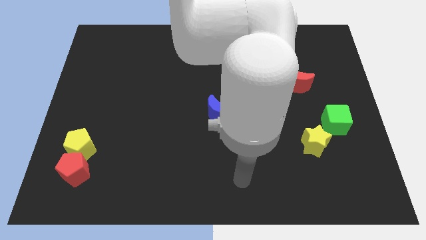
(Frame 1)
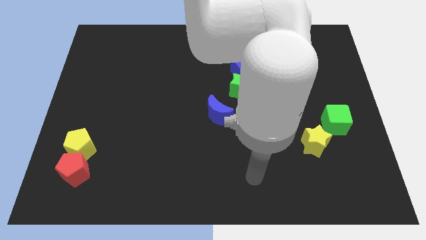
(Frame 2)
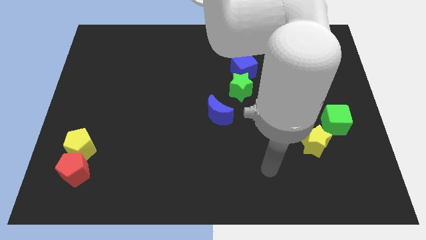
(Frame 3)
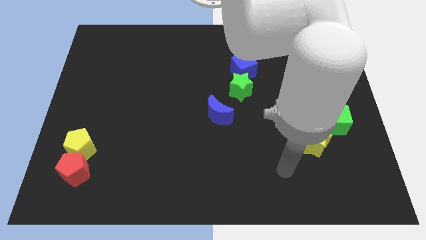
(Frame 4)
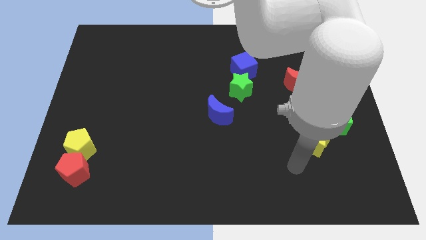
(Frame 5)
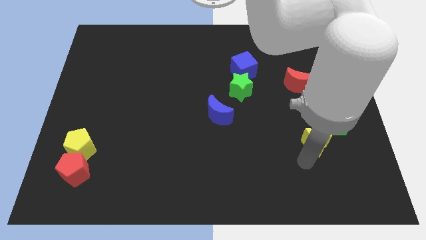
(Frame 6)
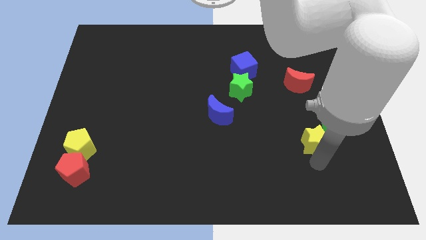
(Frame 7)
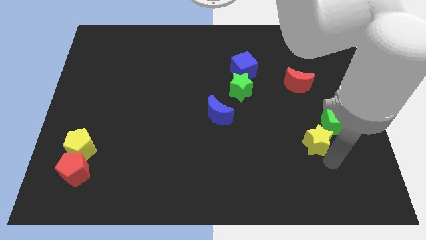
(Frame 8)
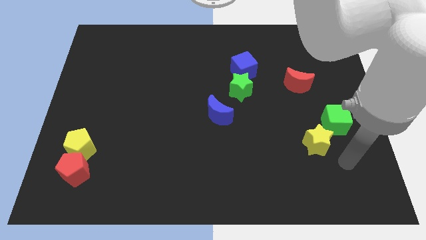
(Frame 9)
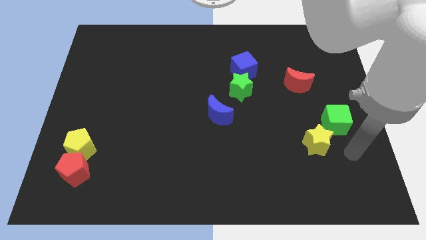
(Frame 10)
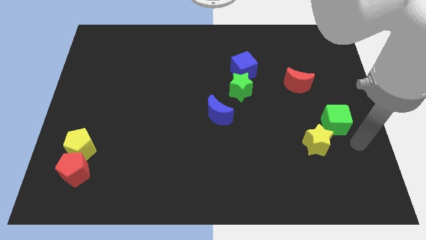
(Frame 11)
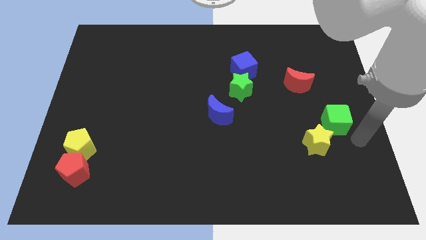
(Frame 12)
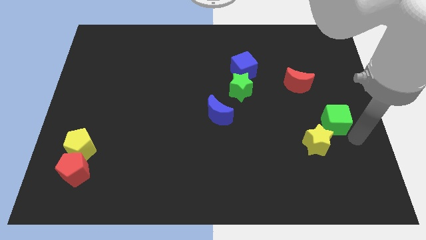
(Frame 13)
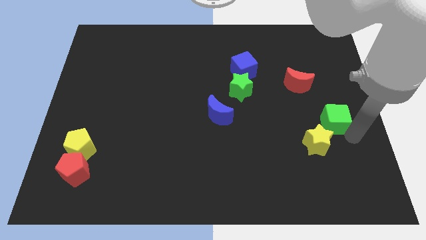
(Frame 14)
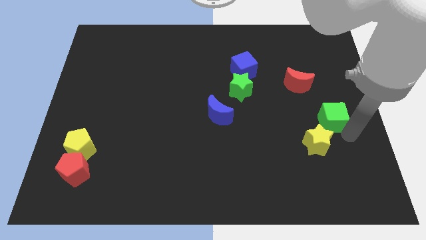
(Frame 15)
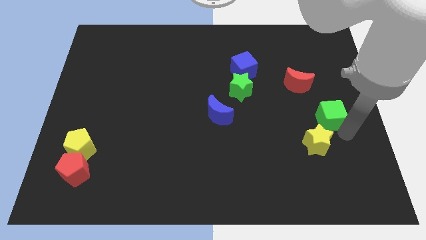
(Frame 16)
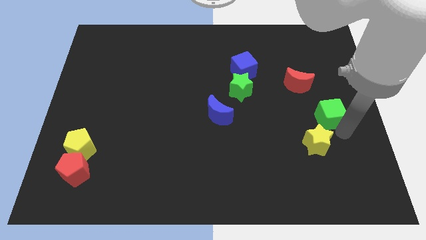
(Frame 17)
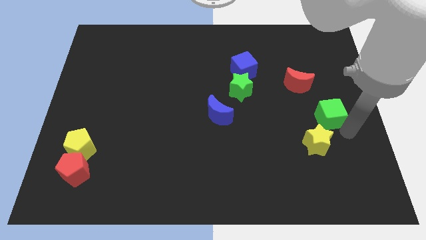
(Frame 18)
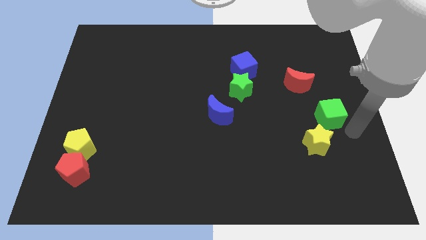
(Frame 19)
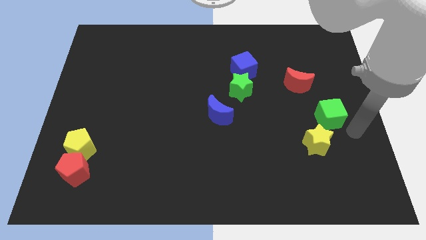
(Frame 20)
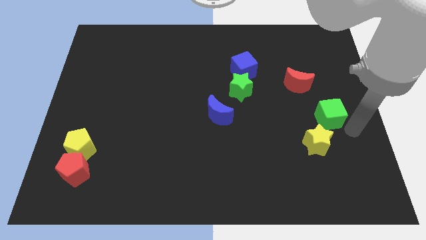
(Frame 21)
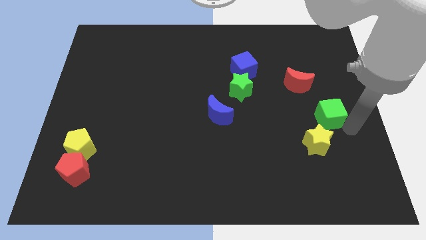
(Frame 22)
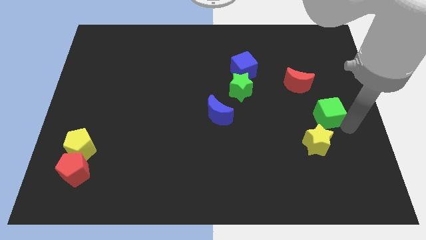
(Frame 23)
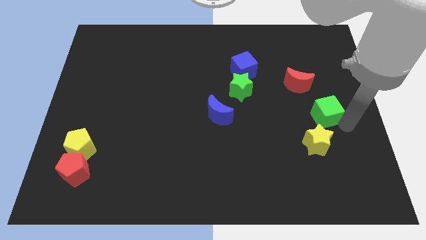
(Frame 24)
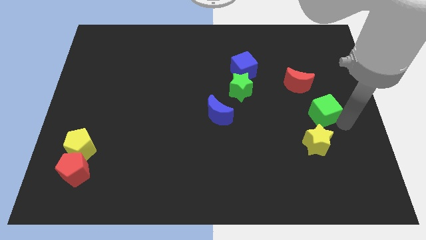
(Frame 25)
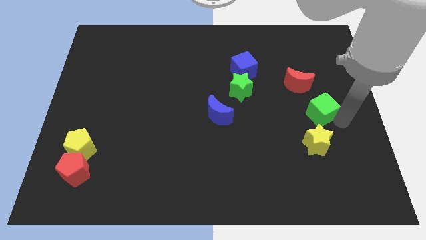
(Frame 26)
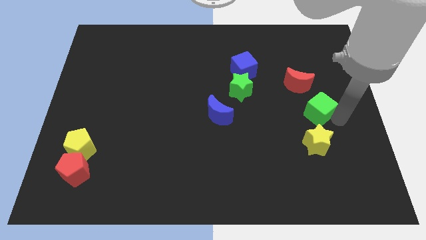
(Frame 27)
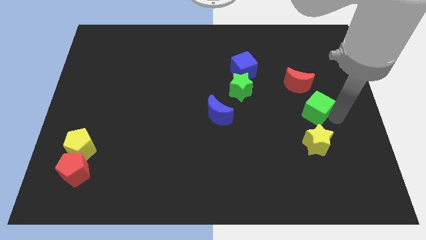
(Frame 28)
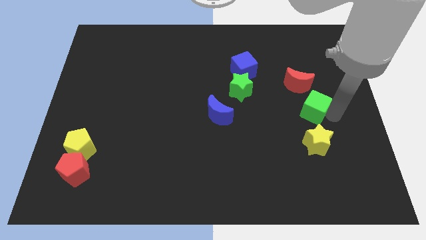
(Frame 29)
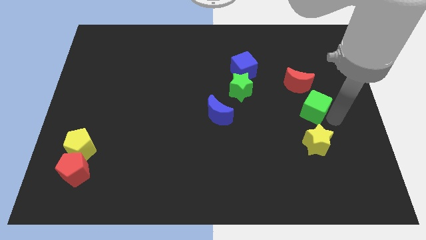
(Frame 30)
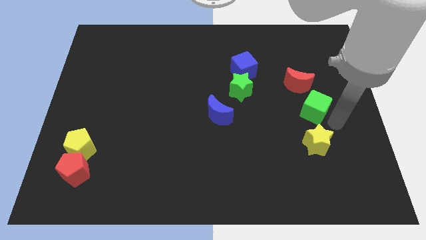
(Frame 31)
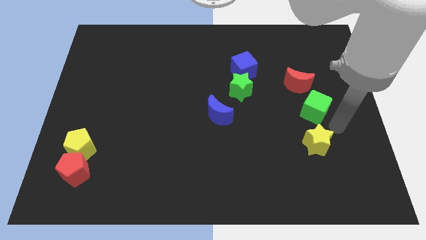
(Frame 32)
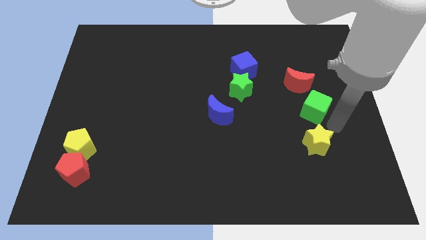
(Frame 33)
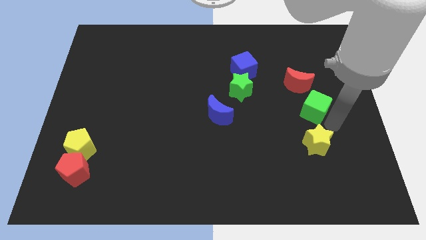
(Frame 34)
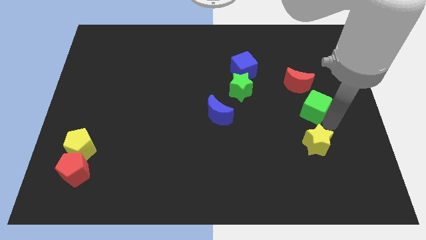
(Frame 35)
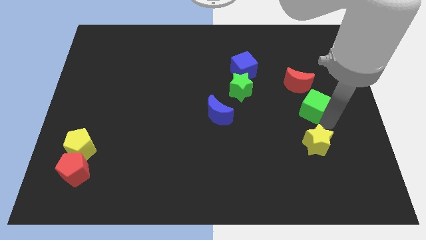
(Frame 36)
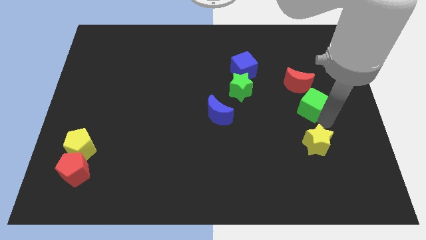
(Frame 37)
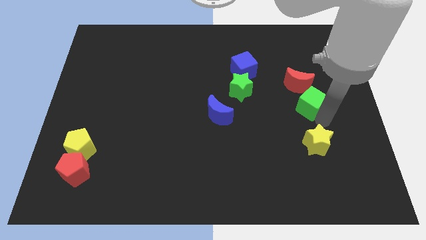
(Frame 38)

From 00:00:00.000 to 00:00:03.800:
slide the green cube slightly up and to the left diagonally

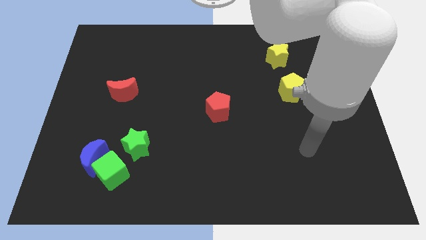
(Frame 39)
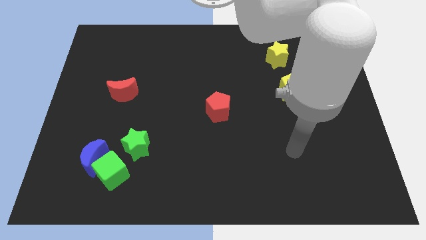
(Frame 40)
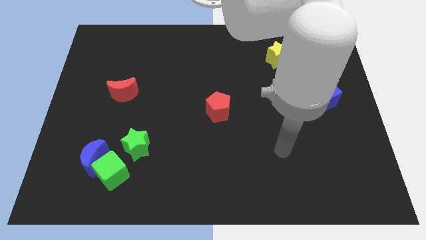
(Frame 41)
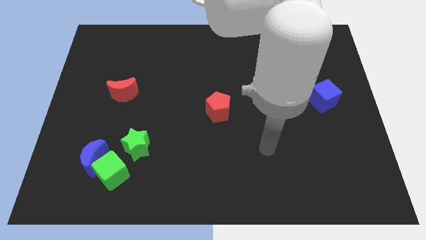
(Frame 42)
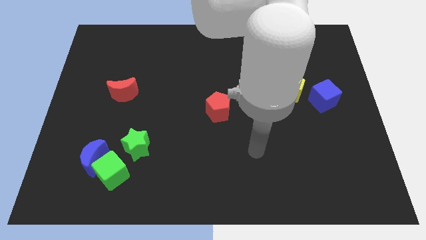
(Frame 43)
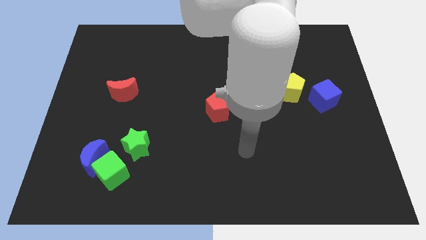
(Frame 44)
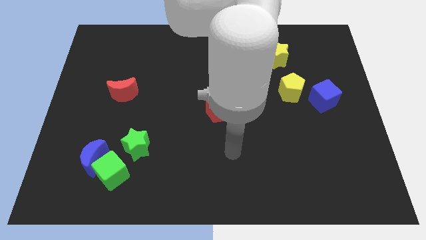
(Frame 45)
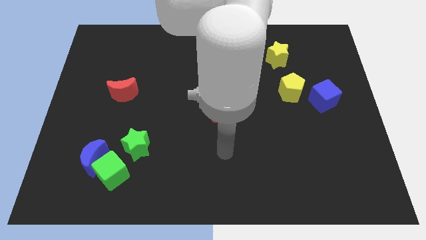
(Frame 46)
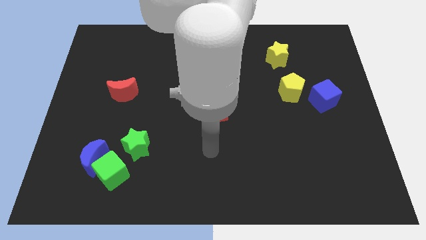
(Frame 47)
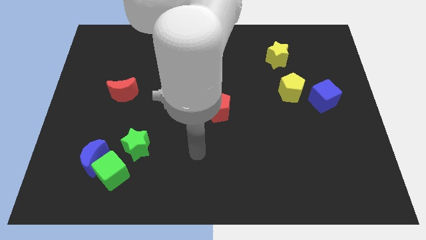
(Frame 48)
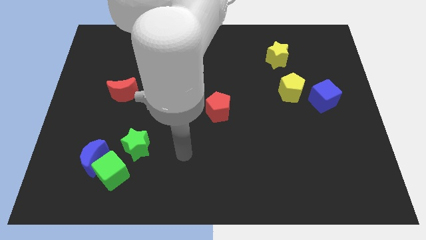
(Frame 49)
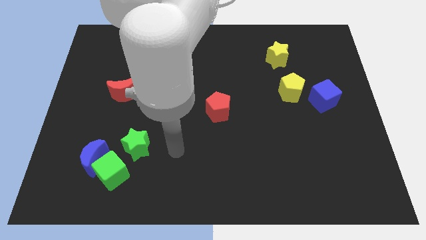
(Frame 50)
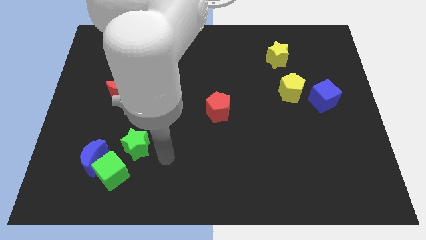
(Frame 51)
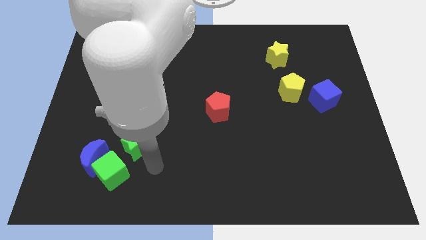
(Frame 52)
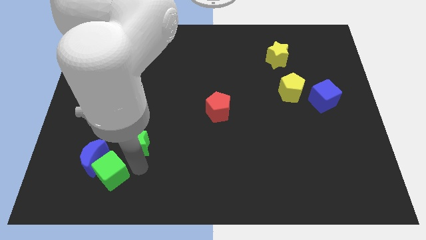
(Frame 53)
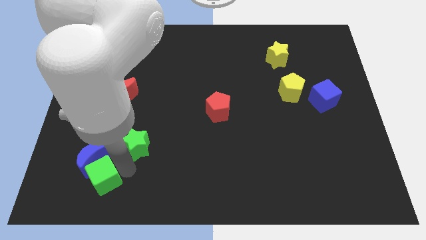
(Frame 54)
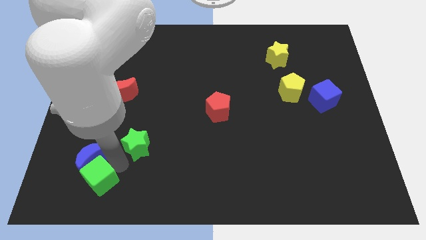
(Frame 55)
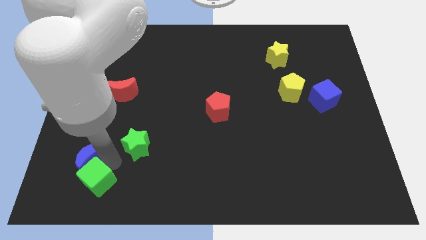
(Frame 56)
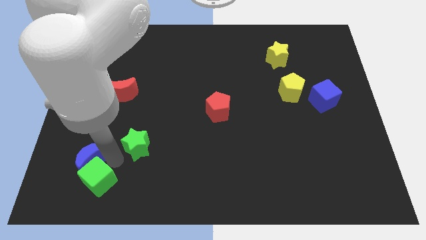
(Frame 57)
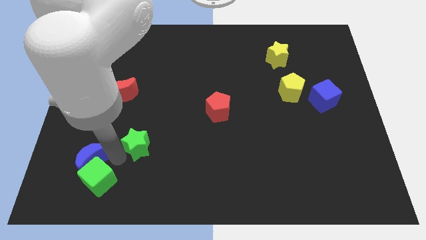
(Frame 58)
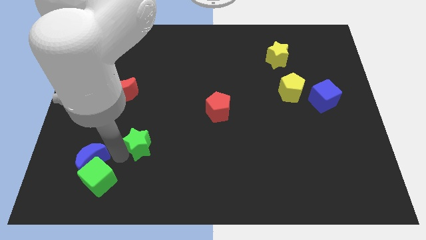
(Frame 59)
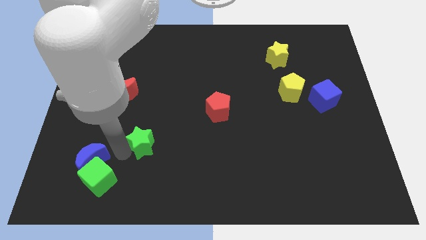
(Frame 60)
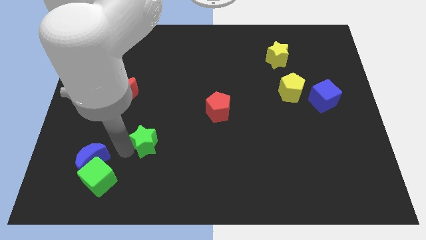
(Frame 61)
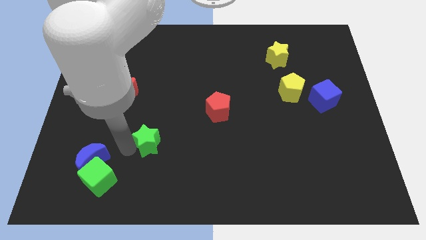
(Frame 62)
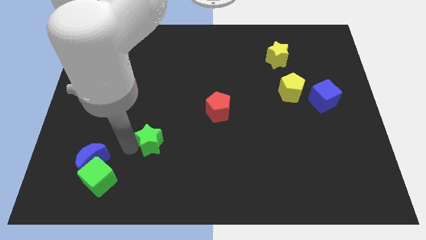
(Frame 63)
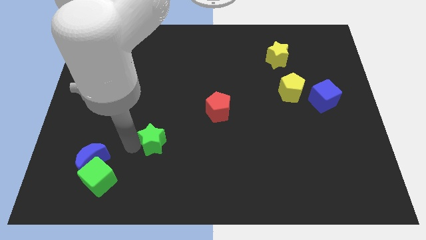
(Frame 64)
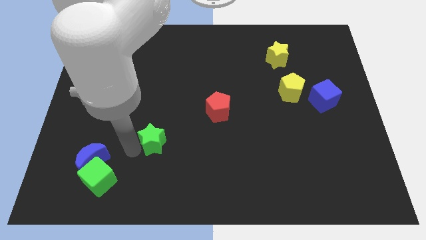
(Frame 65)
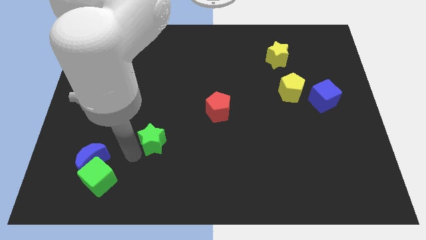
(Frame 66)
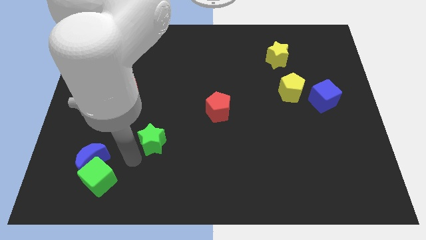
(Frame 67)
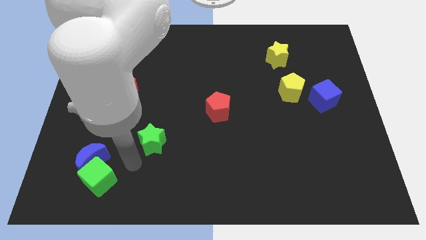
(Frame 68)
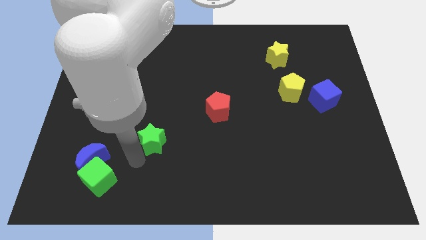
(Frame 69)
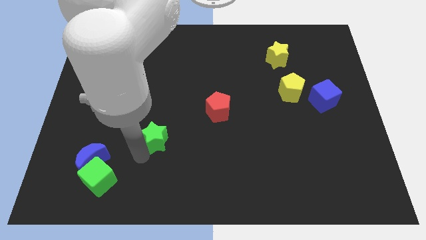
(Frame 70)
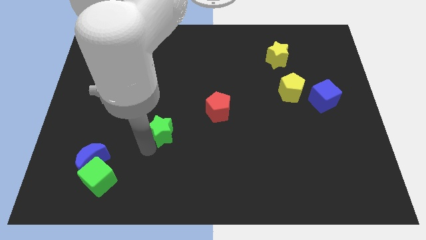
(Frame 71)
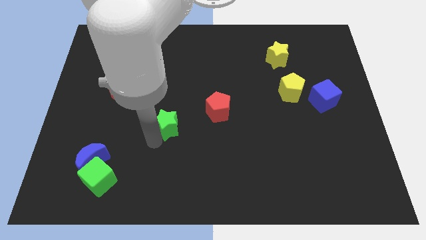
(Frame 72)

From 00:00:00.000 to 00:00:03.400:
slide the green star a little up and right

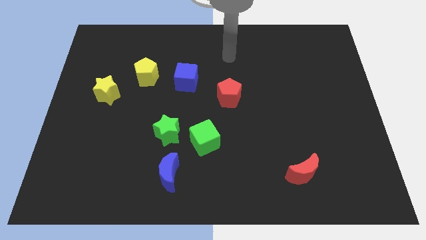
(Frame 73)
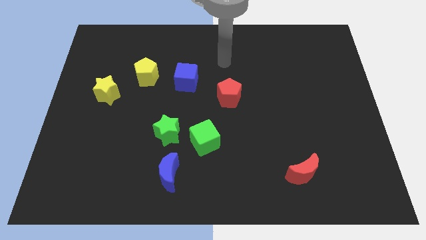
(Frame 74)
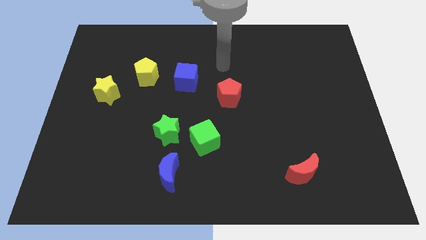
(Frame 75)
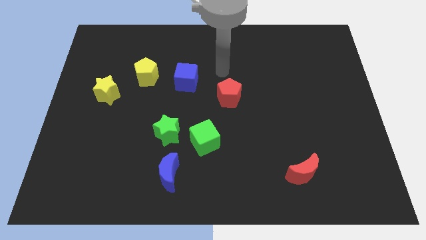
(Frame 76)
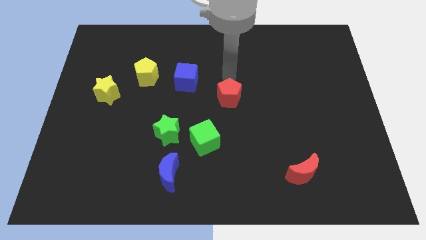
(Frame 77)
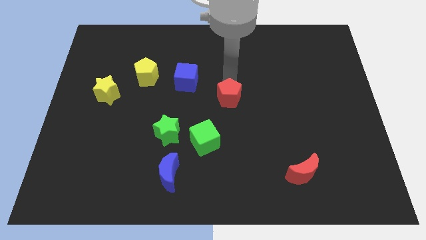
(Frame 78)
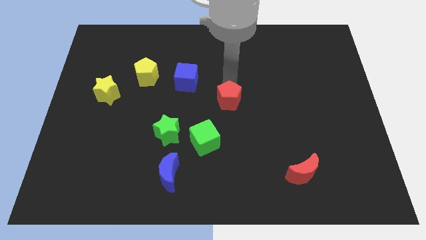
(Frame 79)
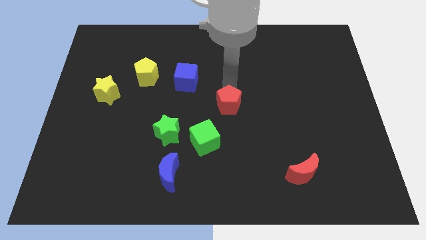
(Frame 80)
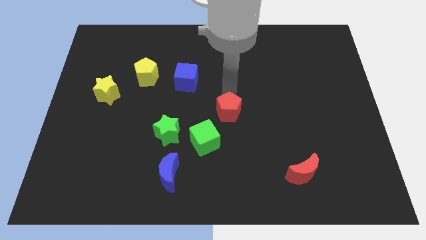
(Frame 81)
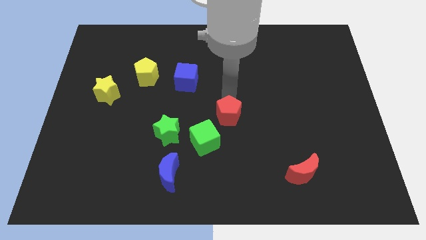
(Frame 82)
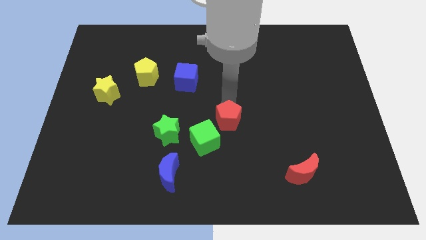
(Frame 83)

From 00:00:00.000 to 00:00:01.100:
push the red pentagon down a little
